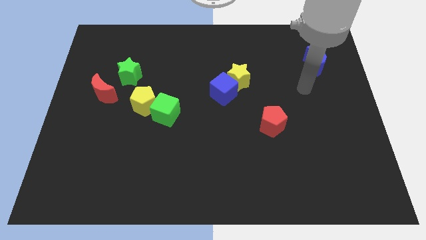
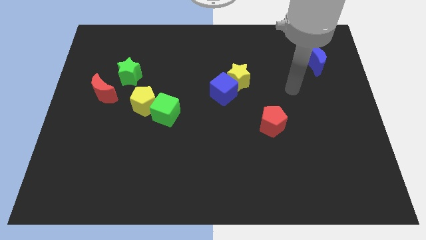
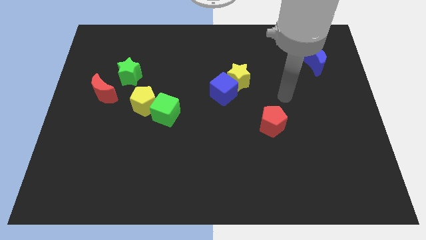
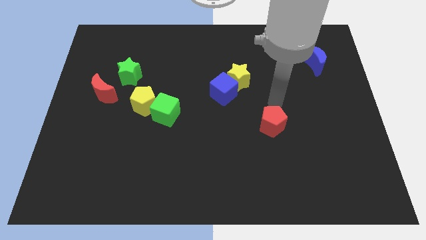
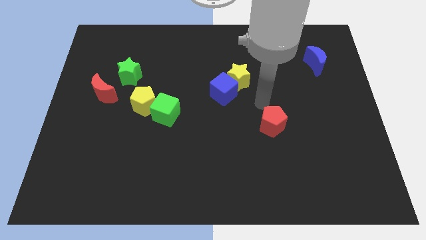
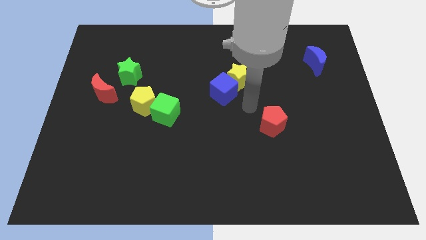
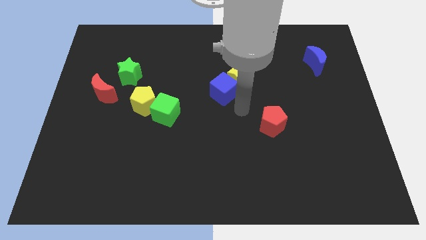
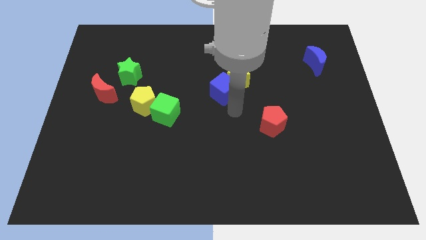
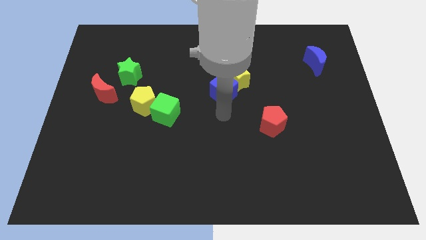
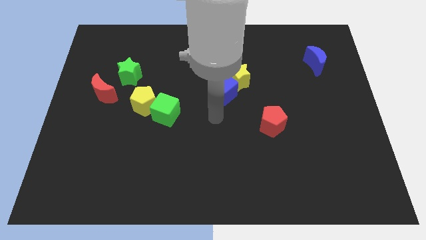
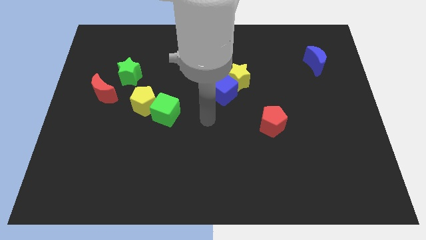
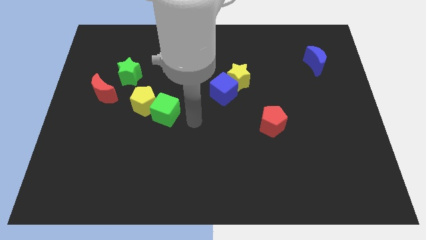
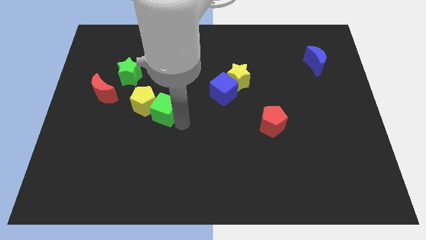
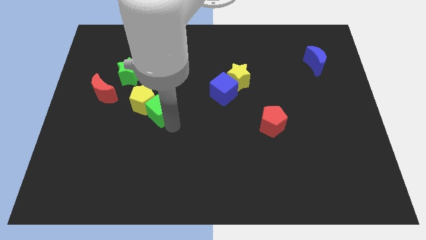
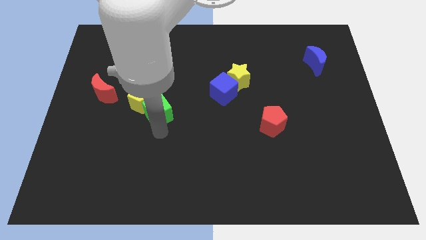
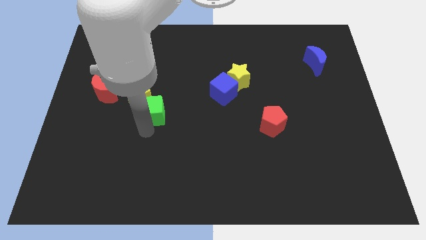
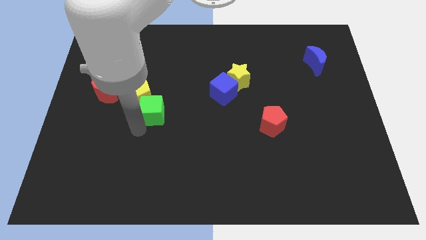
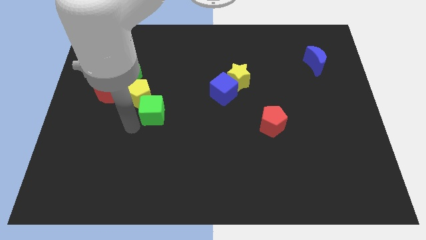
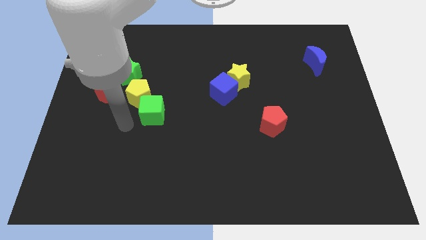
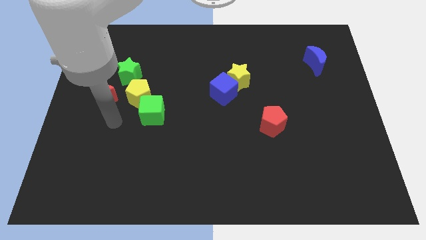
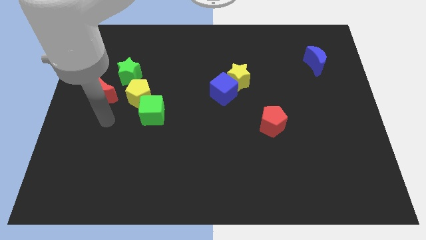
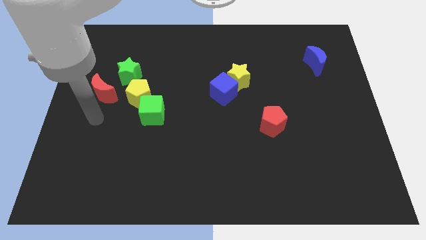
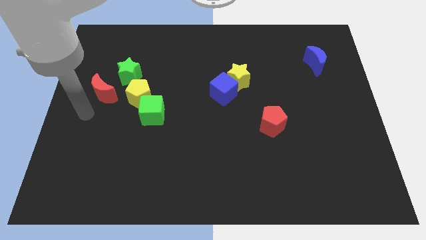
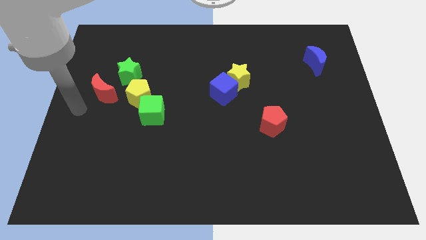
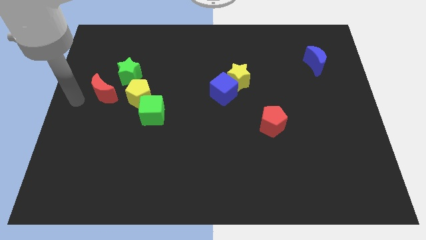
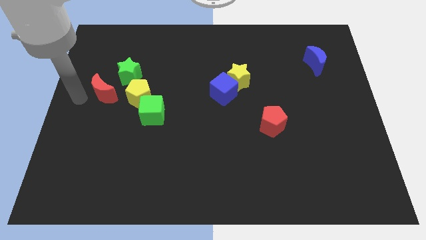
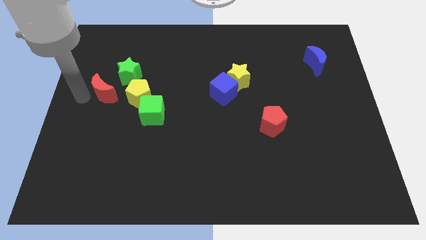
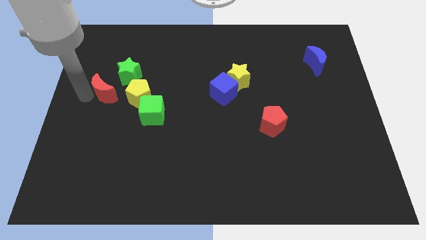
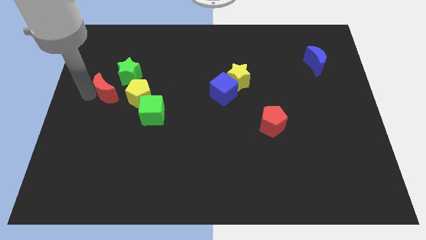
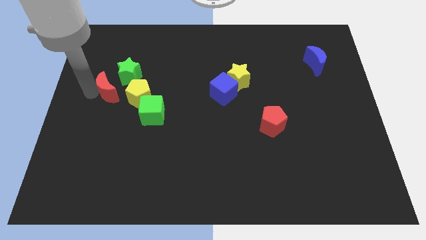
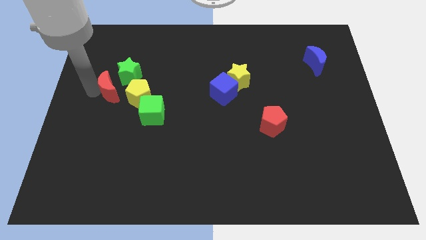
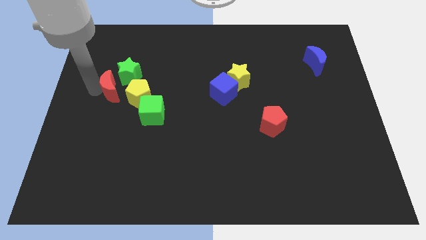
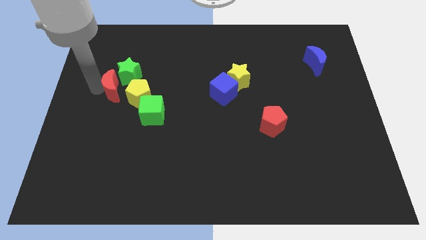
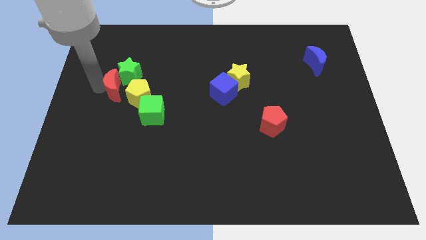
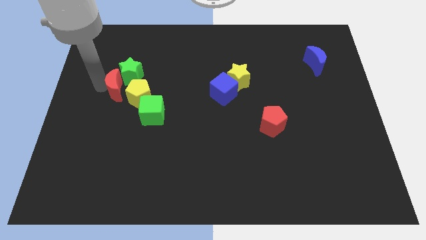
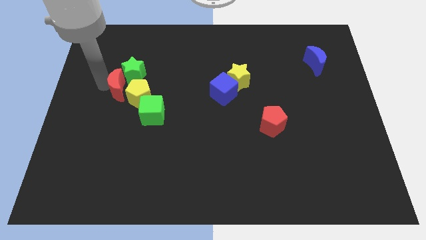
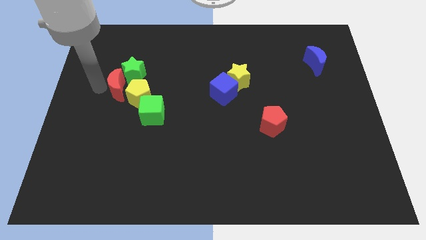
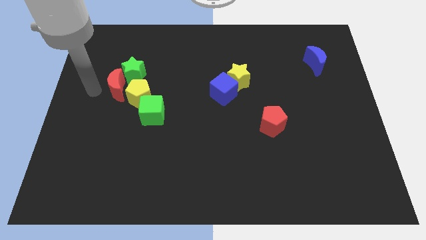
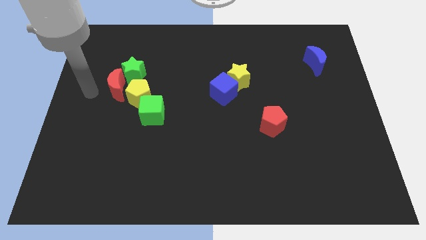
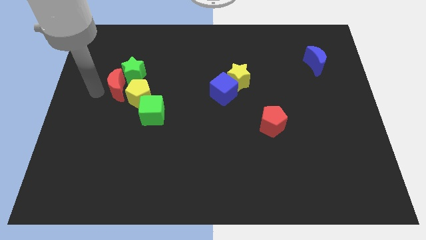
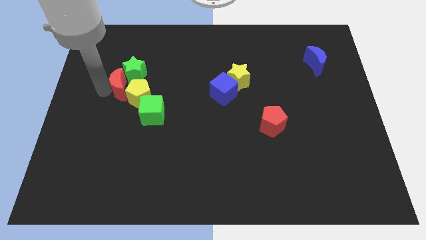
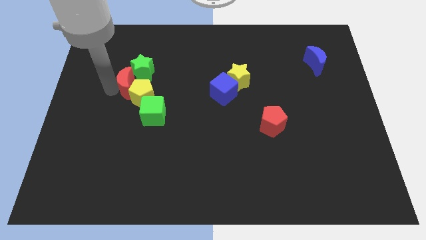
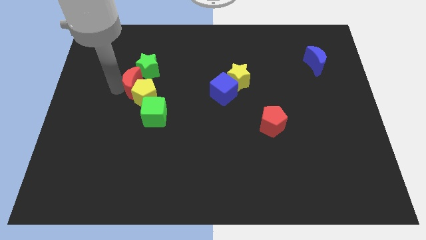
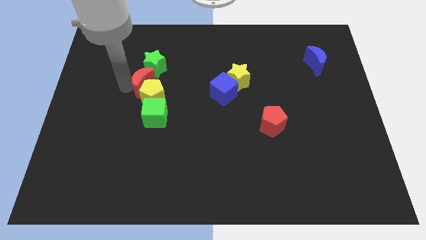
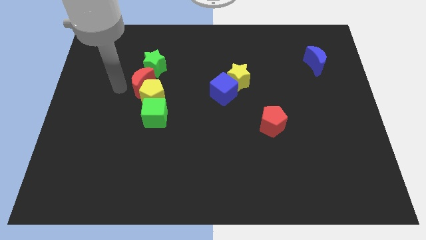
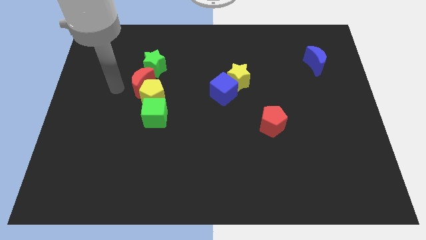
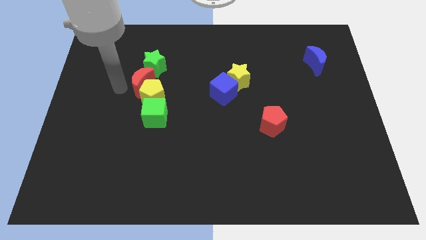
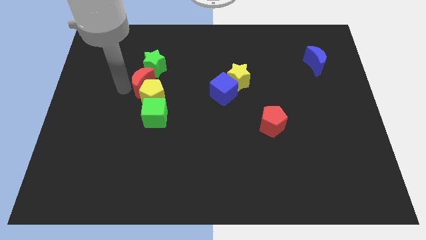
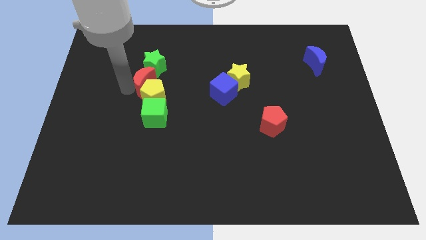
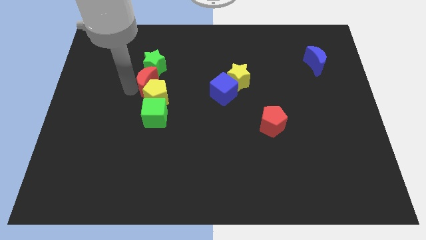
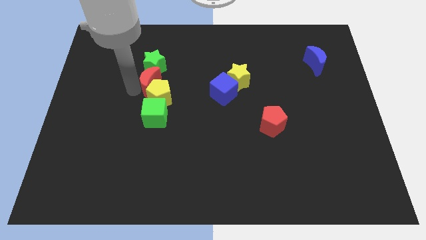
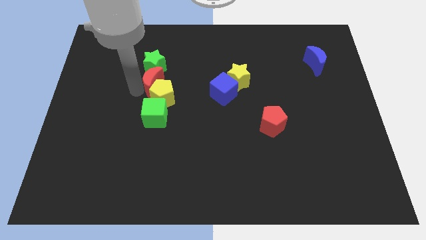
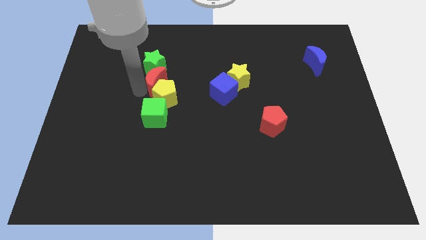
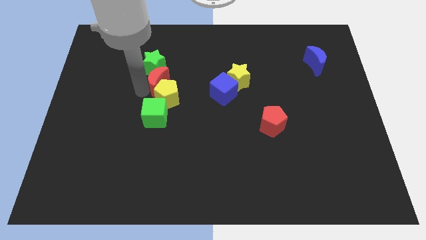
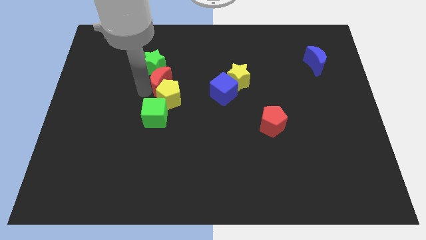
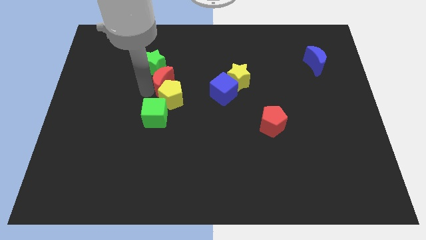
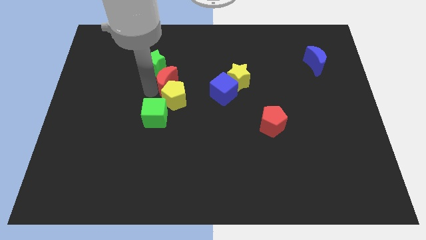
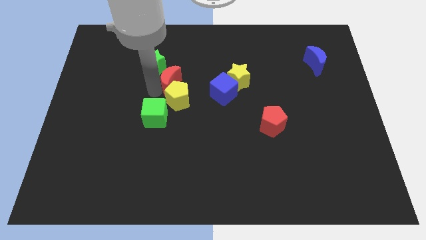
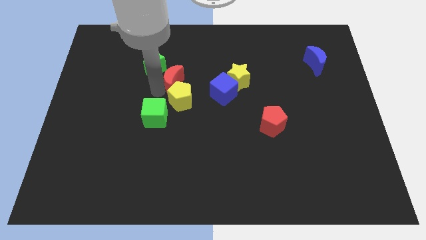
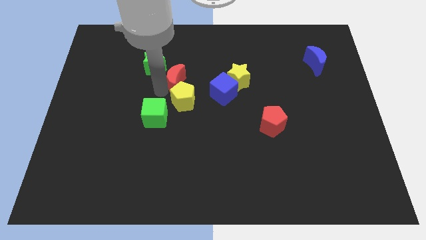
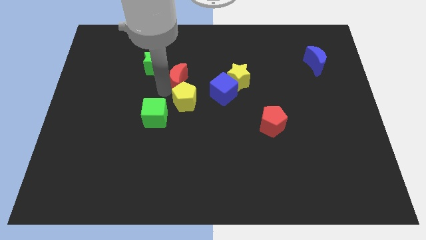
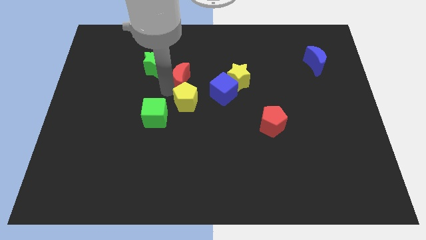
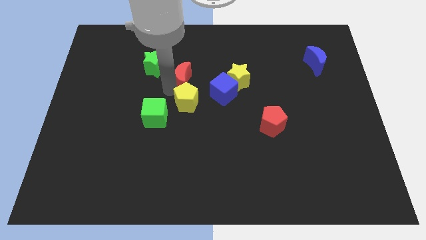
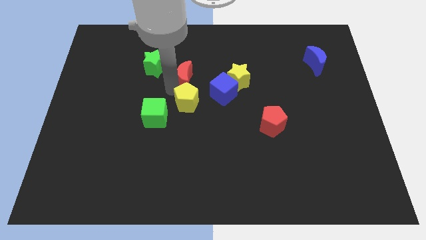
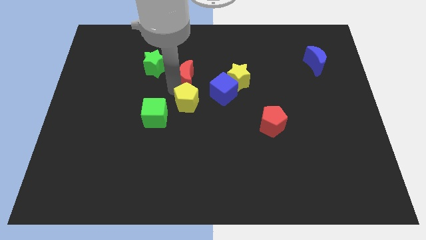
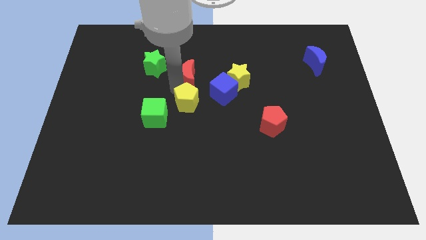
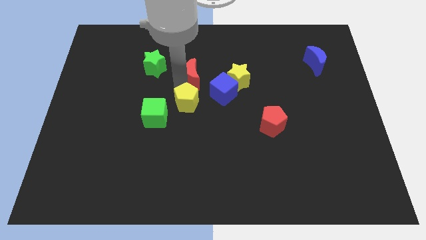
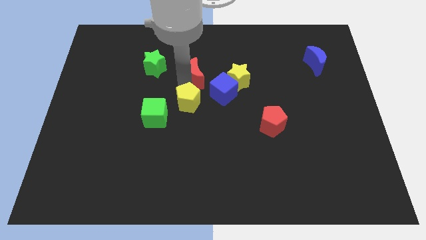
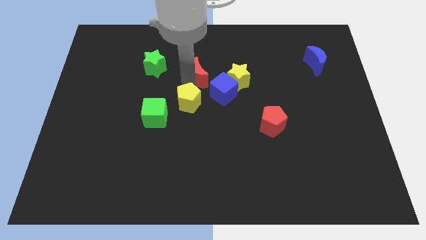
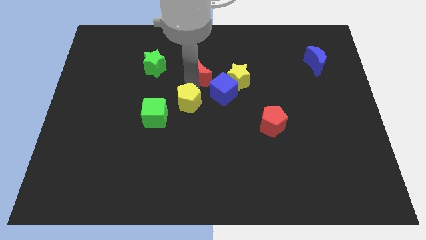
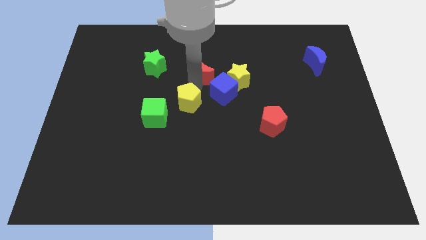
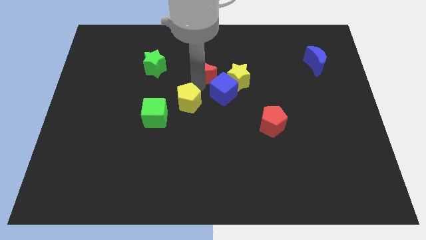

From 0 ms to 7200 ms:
move the red moon to the top side of the blue cube

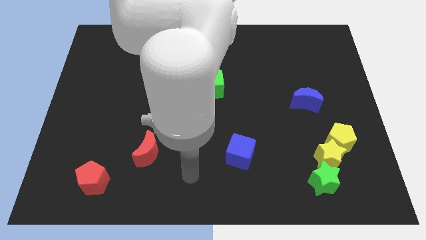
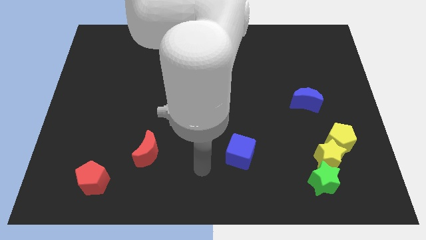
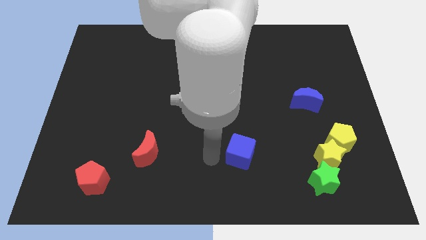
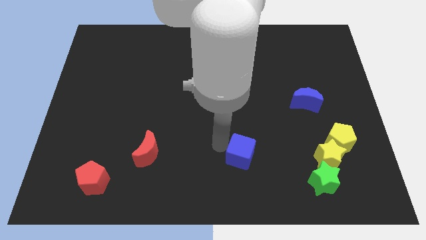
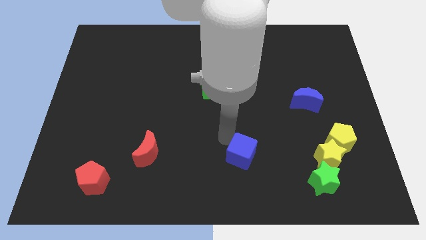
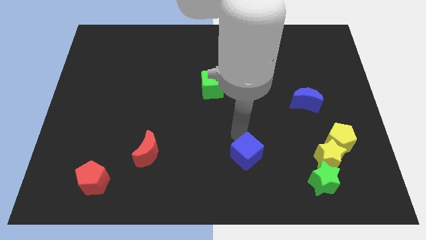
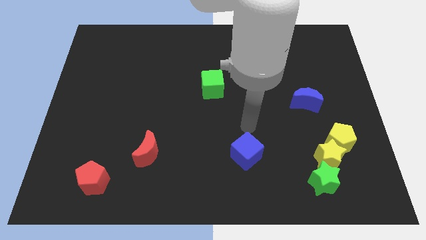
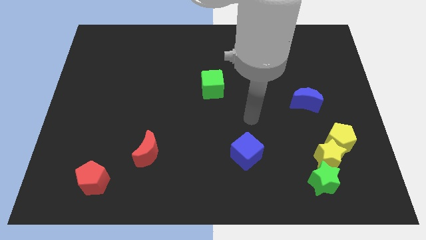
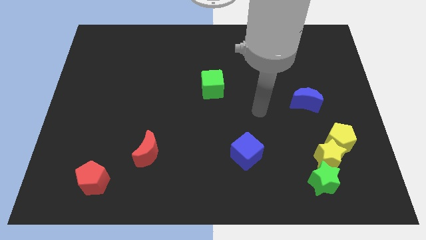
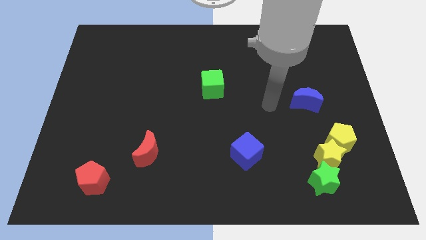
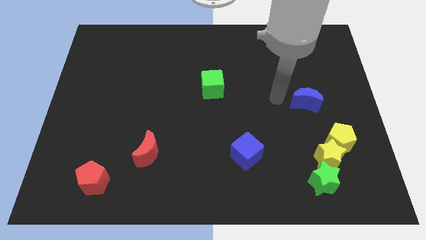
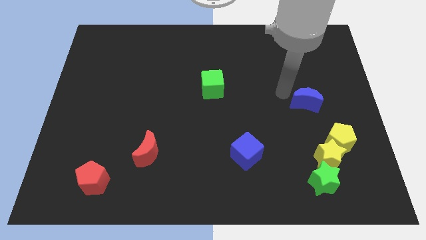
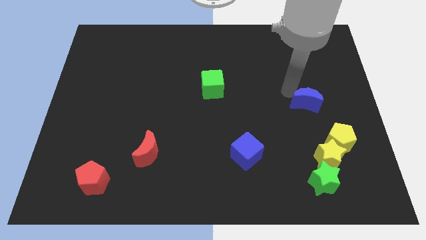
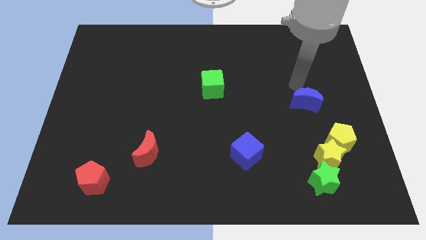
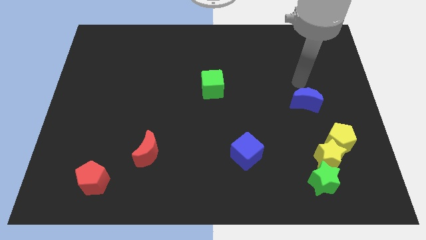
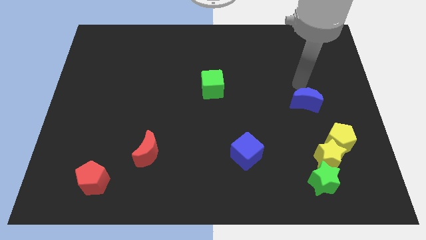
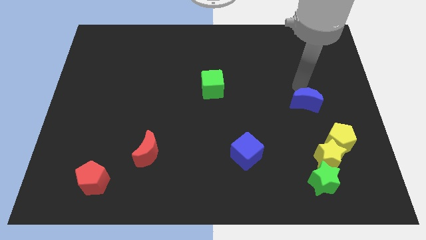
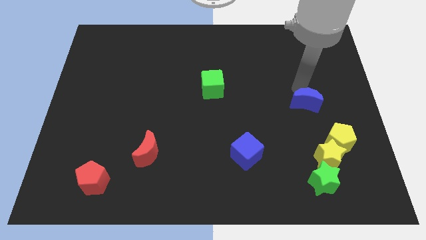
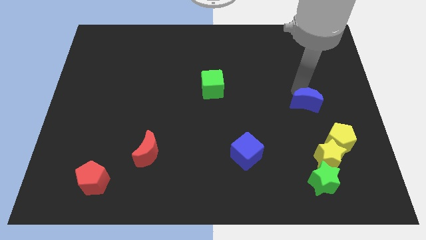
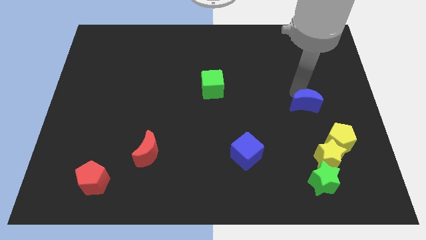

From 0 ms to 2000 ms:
slide the blue moon diagonally up and to the left of the yellow pentagon
